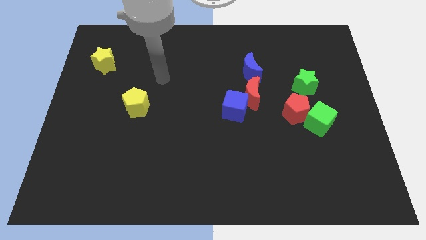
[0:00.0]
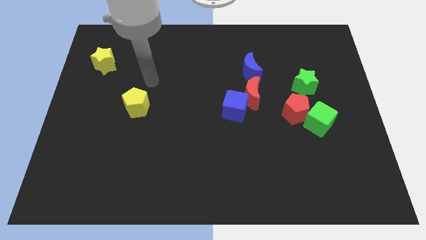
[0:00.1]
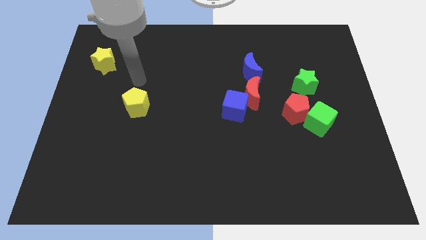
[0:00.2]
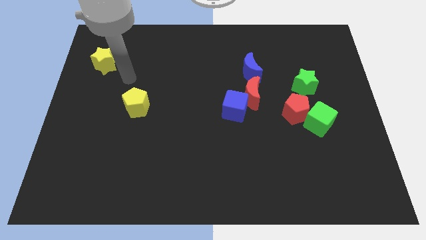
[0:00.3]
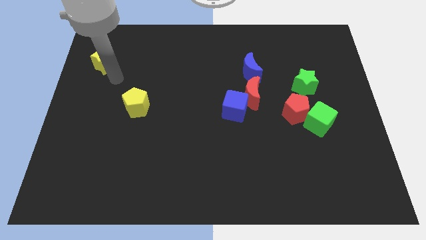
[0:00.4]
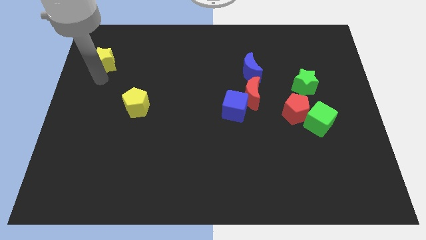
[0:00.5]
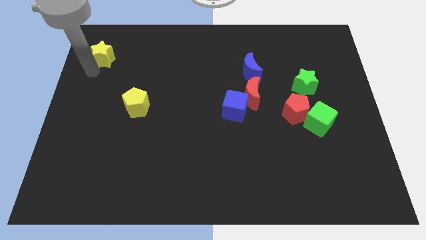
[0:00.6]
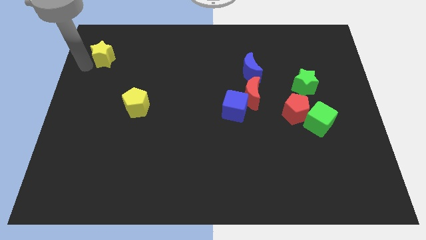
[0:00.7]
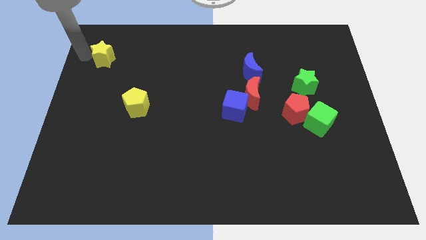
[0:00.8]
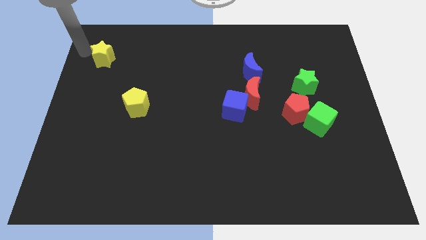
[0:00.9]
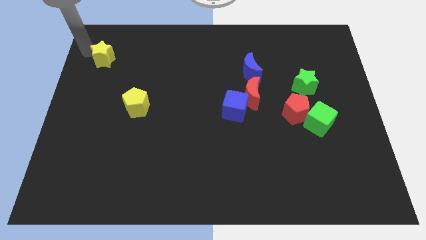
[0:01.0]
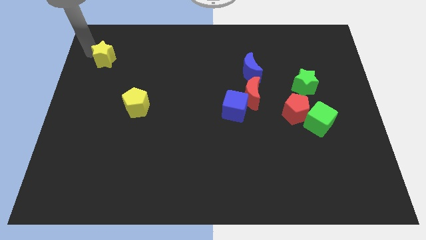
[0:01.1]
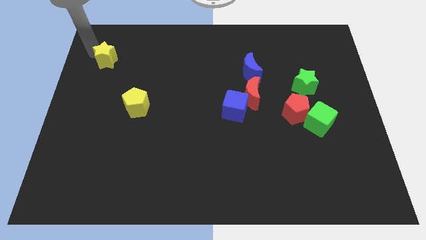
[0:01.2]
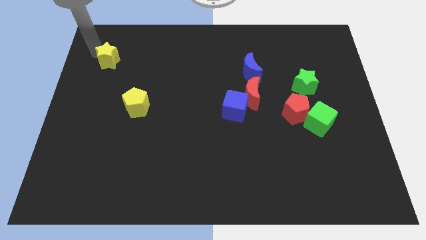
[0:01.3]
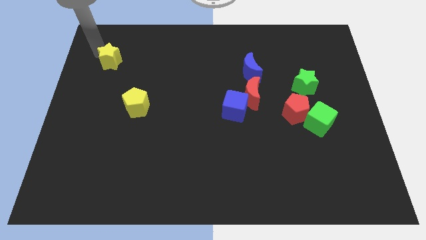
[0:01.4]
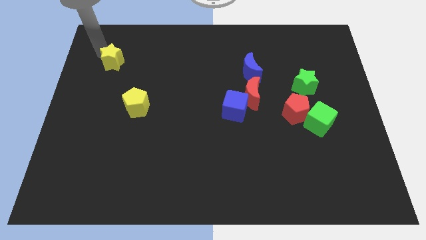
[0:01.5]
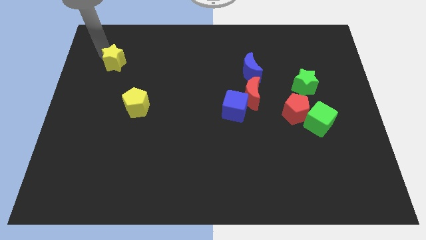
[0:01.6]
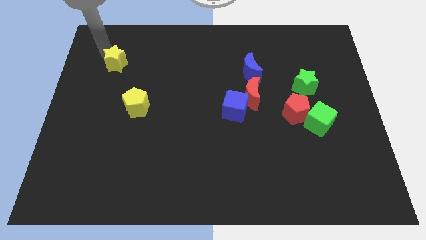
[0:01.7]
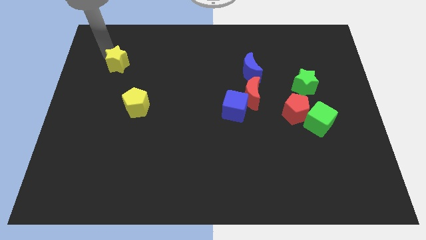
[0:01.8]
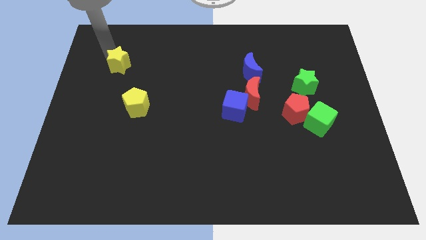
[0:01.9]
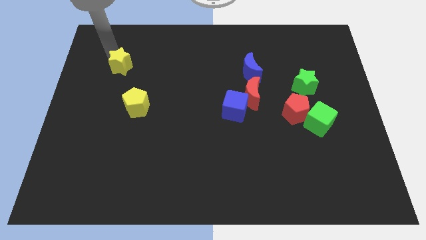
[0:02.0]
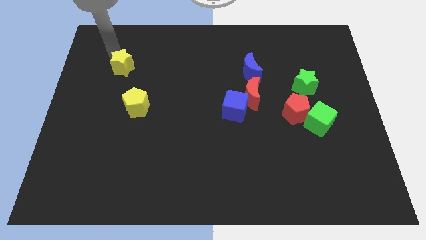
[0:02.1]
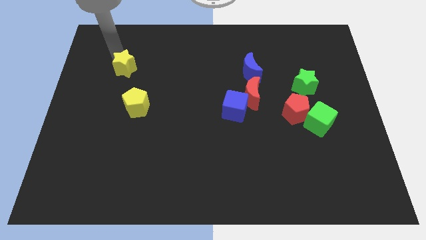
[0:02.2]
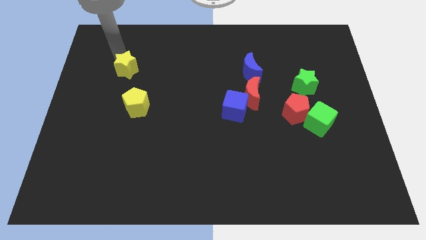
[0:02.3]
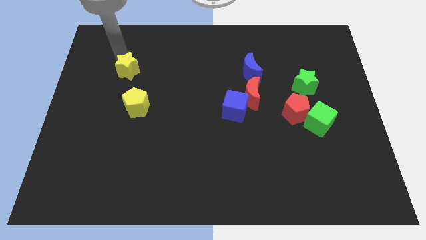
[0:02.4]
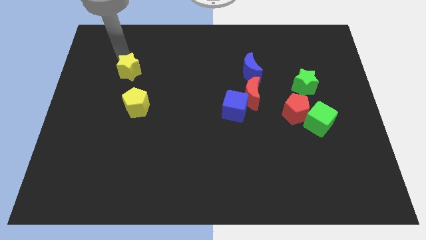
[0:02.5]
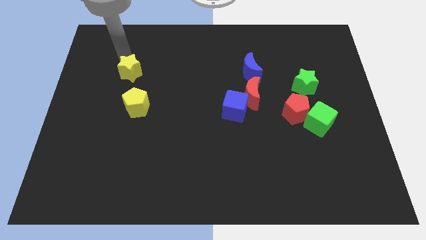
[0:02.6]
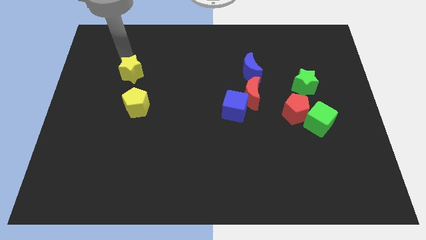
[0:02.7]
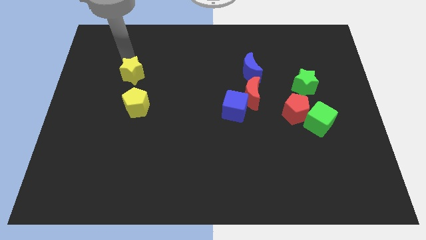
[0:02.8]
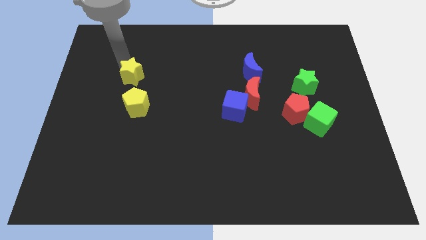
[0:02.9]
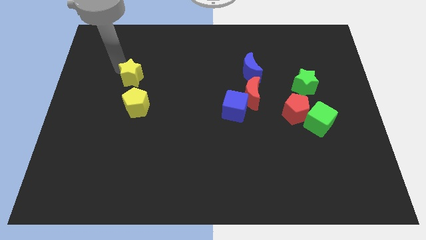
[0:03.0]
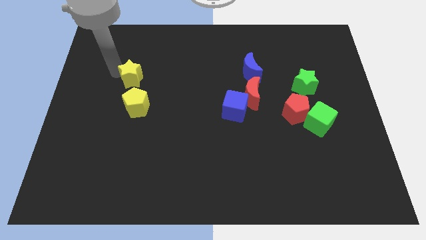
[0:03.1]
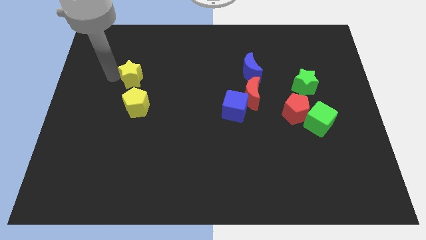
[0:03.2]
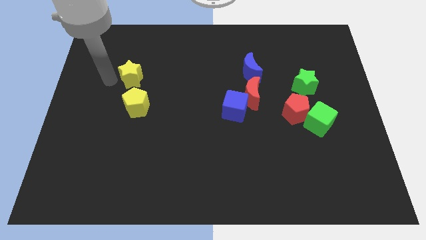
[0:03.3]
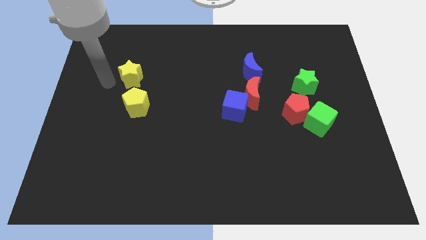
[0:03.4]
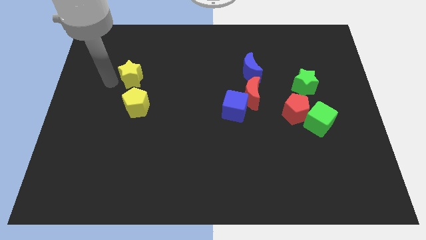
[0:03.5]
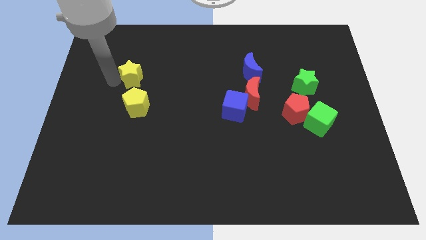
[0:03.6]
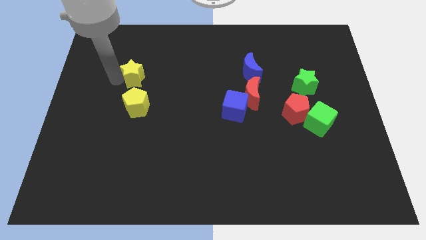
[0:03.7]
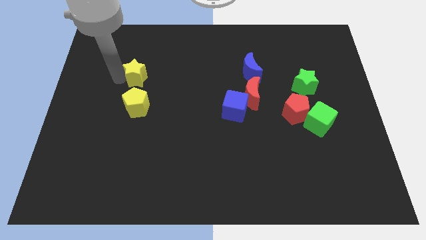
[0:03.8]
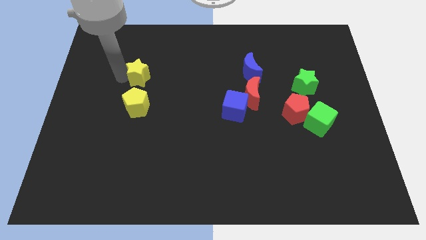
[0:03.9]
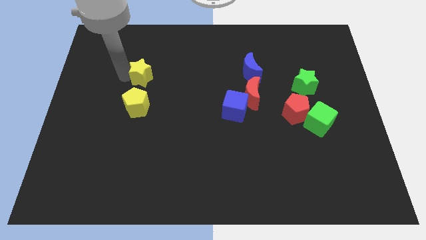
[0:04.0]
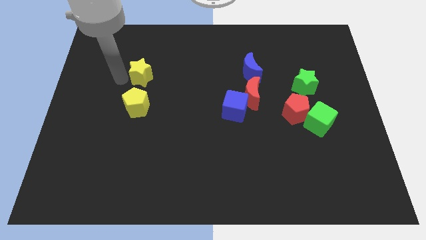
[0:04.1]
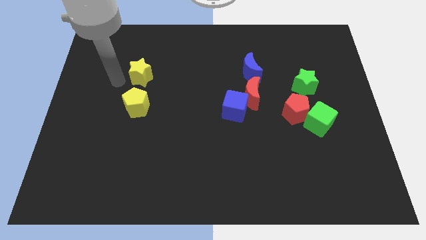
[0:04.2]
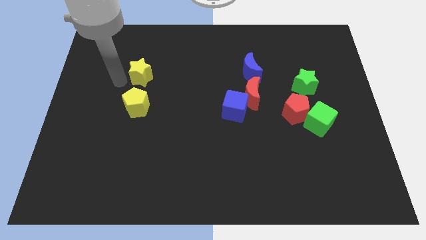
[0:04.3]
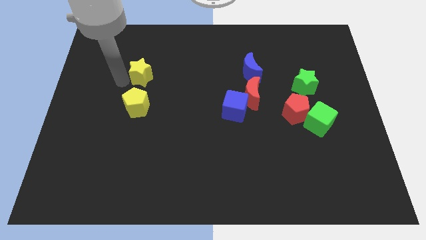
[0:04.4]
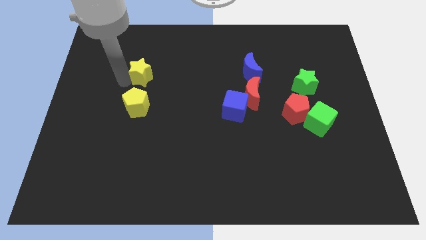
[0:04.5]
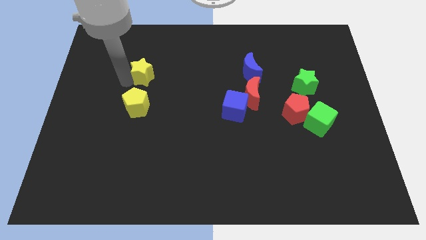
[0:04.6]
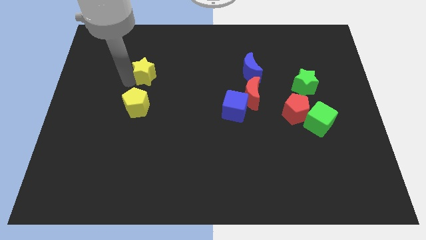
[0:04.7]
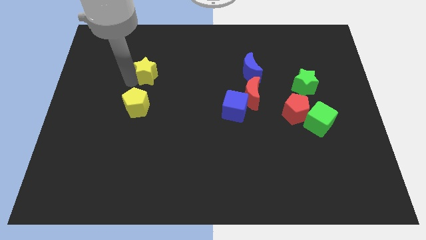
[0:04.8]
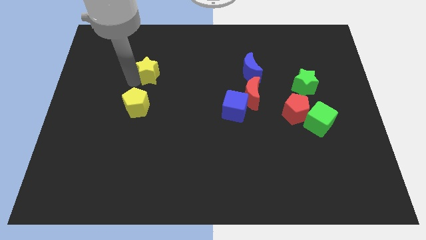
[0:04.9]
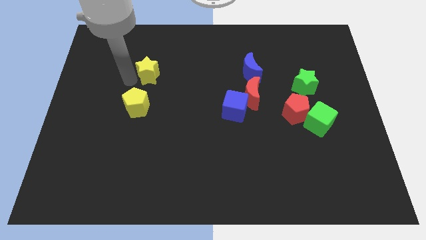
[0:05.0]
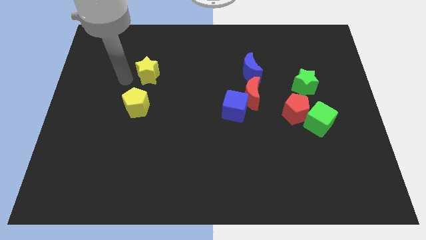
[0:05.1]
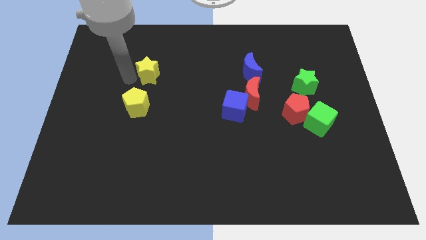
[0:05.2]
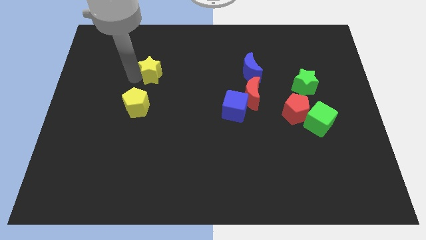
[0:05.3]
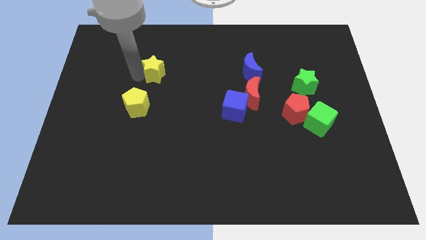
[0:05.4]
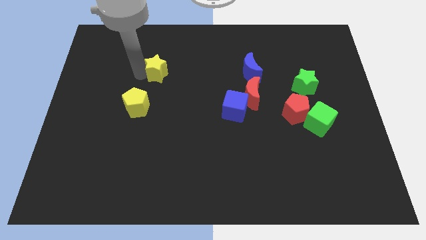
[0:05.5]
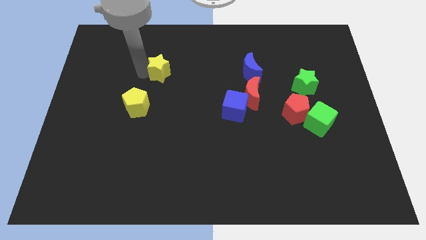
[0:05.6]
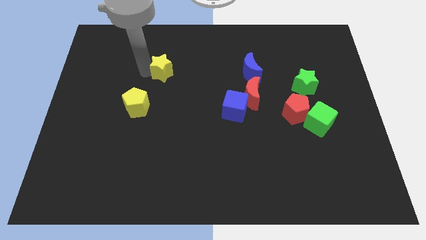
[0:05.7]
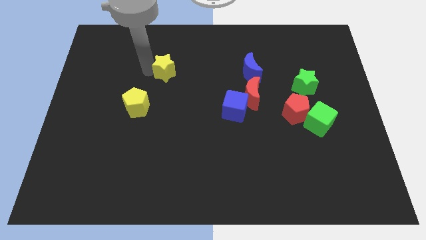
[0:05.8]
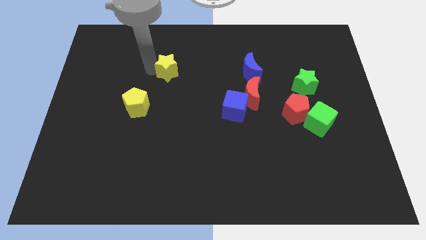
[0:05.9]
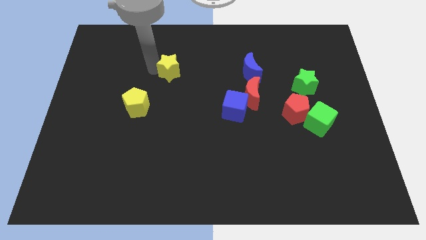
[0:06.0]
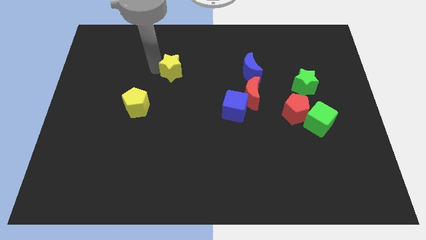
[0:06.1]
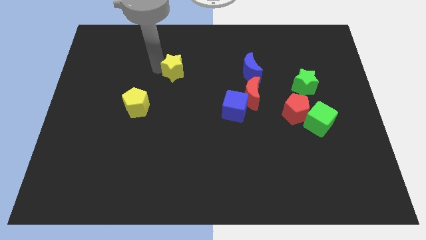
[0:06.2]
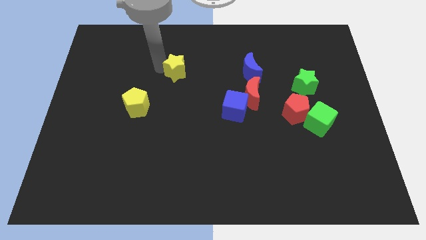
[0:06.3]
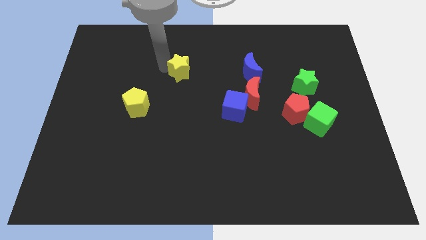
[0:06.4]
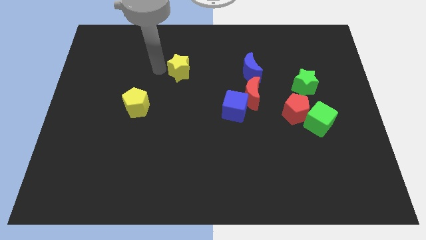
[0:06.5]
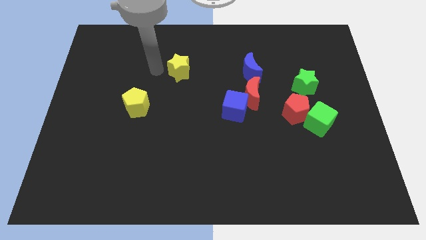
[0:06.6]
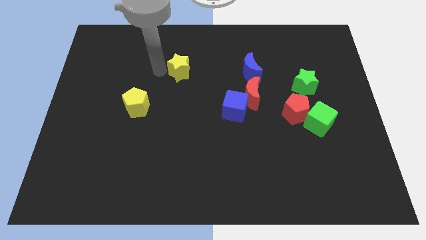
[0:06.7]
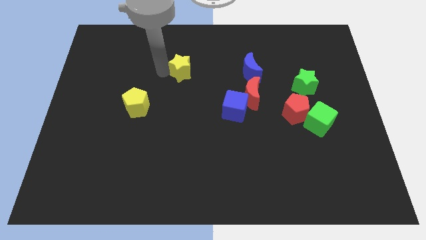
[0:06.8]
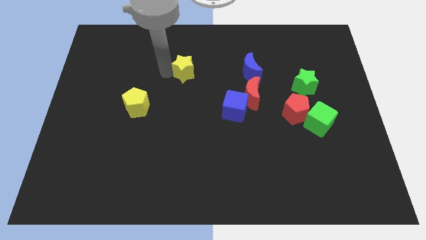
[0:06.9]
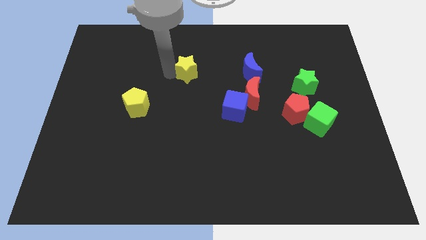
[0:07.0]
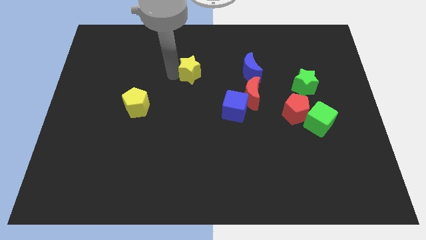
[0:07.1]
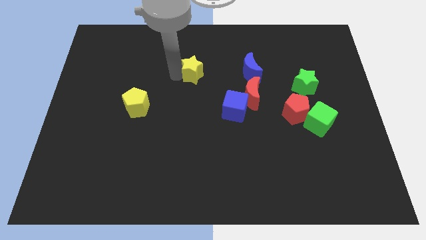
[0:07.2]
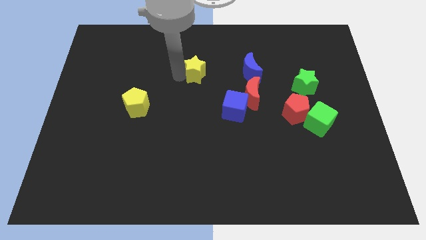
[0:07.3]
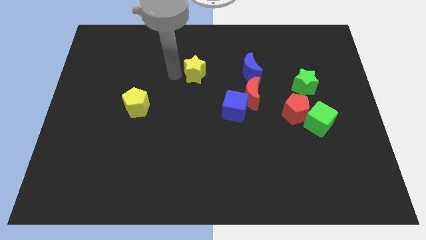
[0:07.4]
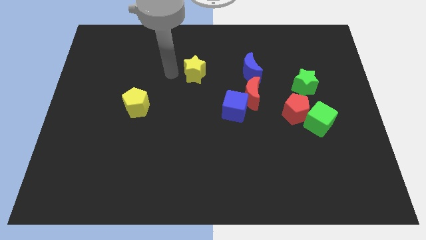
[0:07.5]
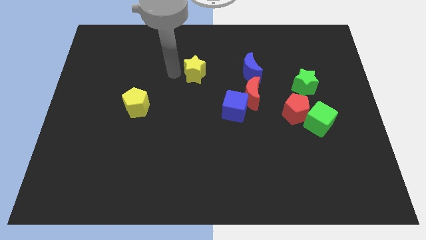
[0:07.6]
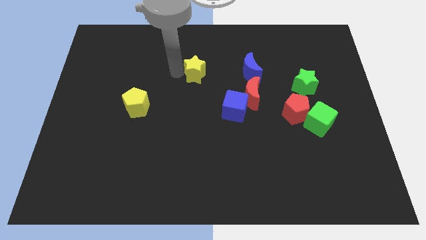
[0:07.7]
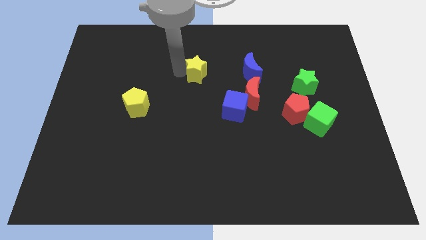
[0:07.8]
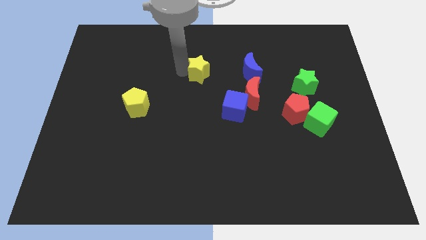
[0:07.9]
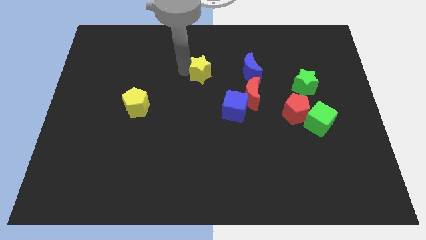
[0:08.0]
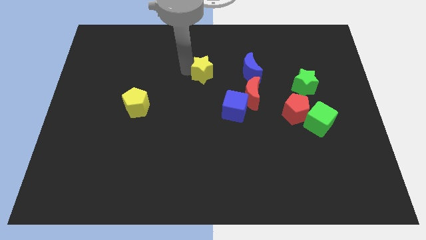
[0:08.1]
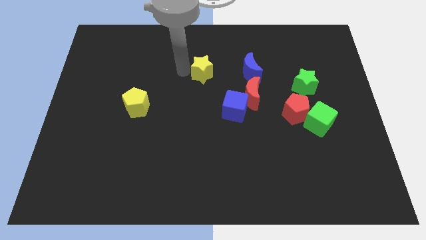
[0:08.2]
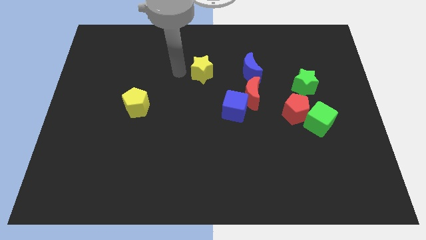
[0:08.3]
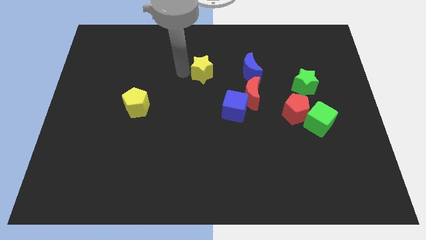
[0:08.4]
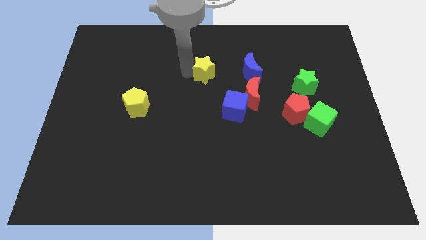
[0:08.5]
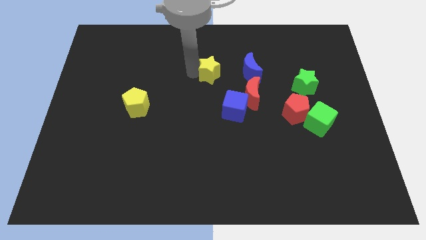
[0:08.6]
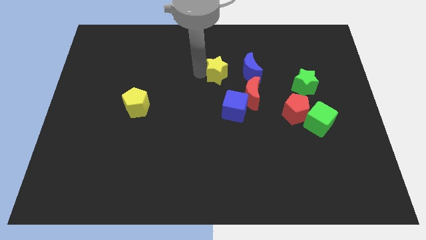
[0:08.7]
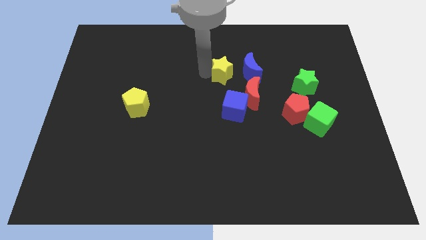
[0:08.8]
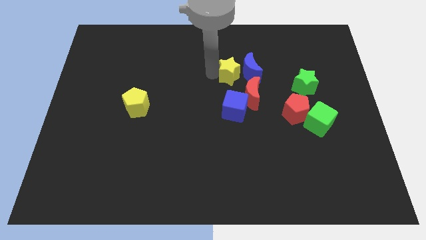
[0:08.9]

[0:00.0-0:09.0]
push the yellow star towards the blue moon
